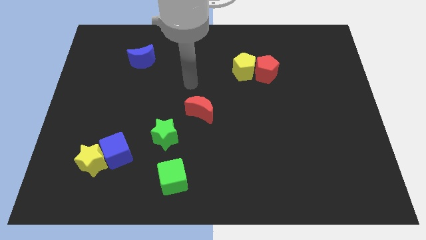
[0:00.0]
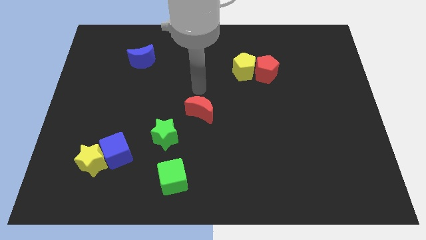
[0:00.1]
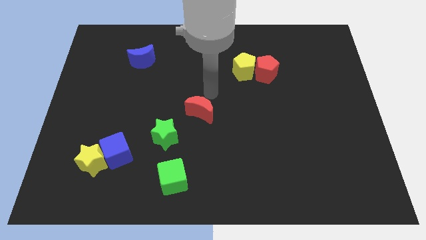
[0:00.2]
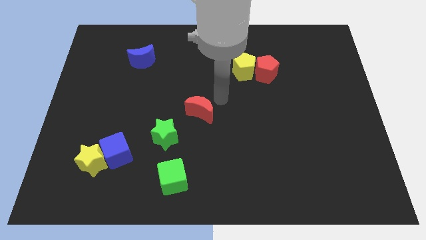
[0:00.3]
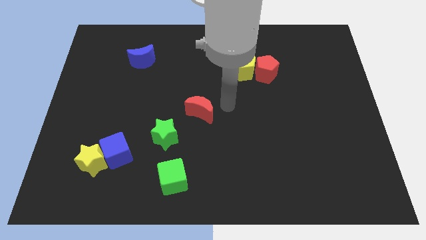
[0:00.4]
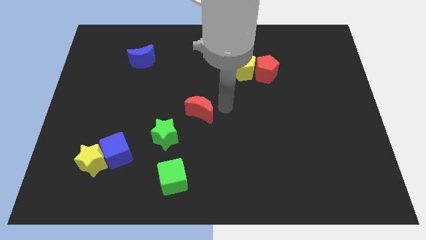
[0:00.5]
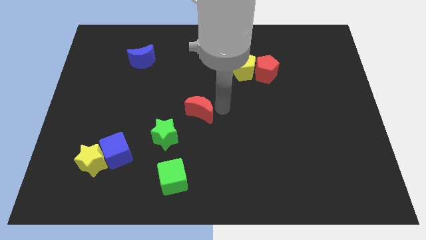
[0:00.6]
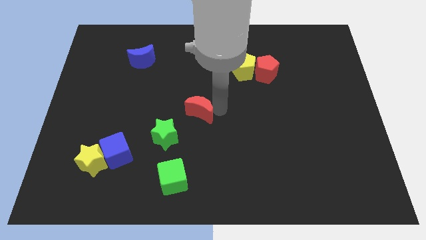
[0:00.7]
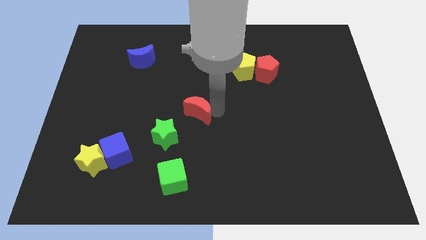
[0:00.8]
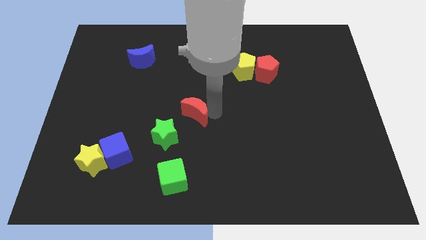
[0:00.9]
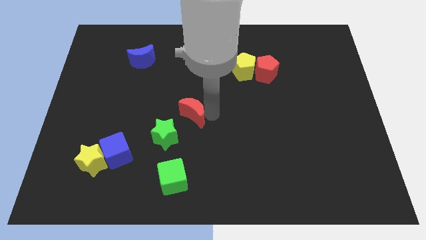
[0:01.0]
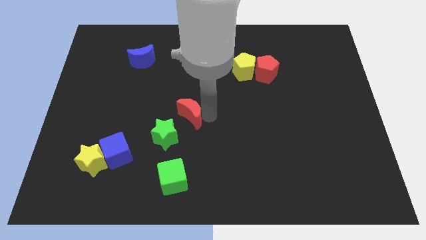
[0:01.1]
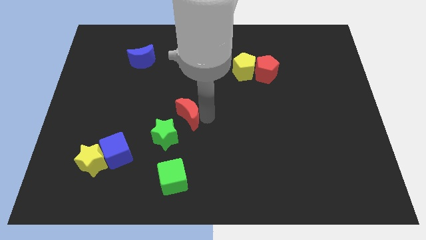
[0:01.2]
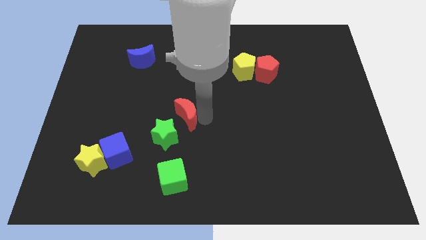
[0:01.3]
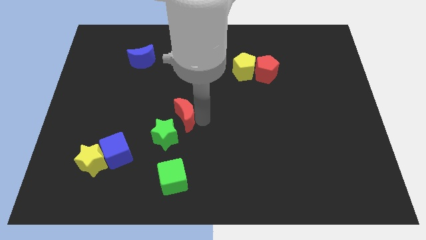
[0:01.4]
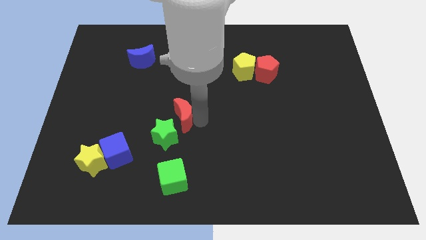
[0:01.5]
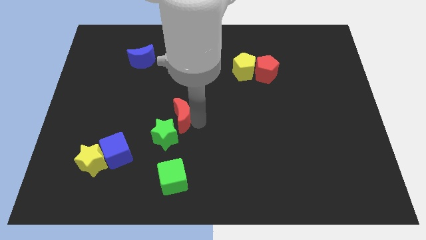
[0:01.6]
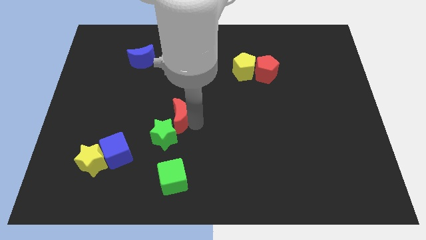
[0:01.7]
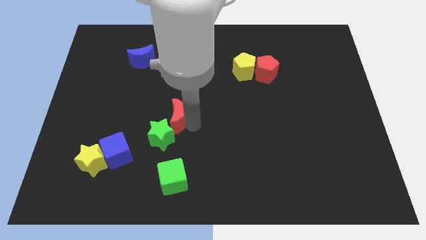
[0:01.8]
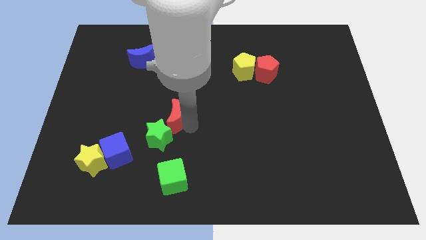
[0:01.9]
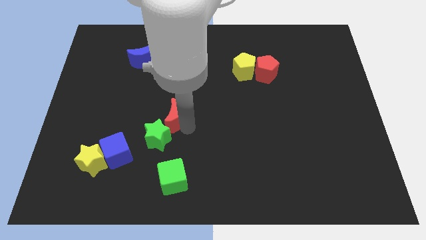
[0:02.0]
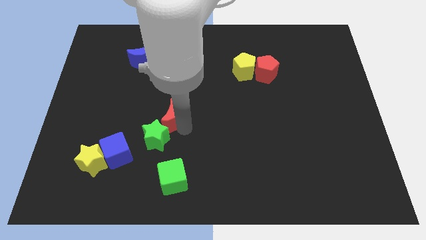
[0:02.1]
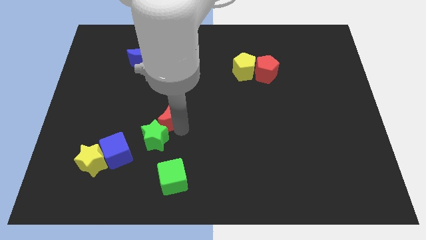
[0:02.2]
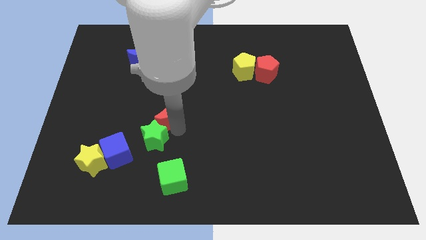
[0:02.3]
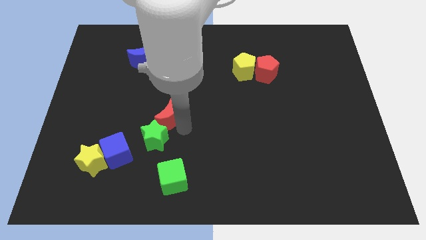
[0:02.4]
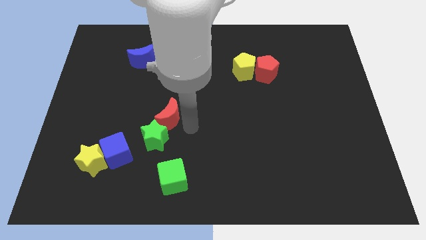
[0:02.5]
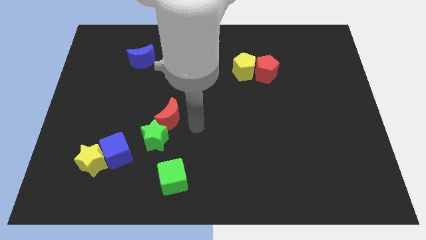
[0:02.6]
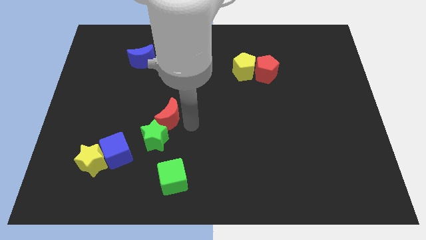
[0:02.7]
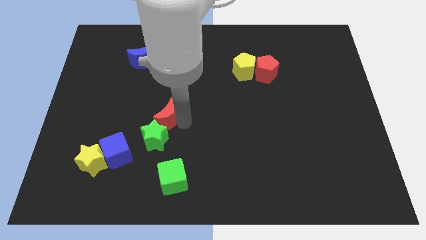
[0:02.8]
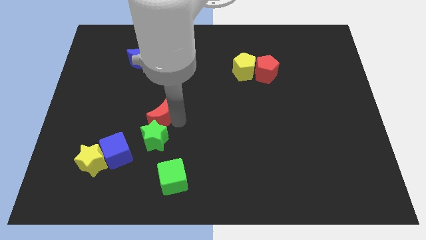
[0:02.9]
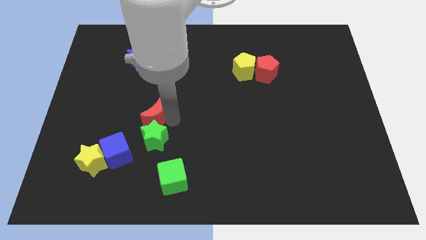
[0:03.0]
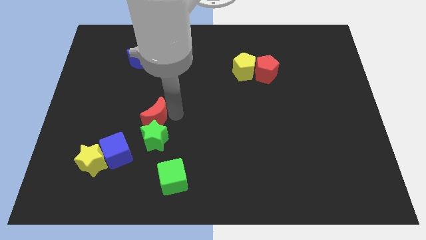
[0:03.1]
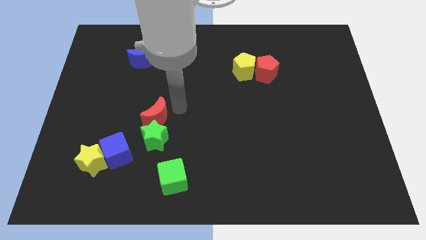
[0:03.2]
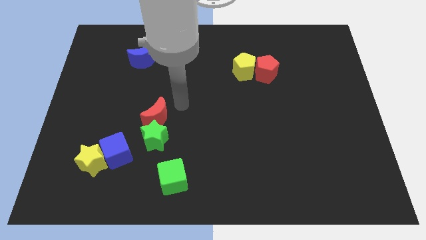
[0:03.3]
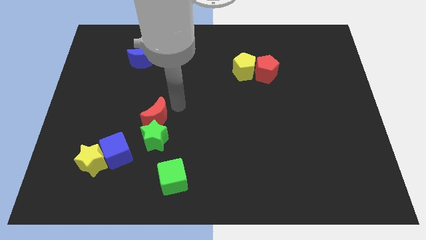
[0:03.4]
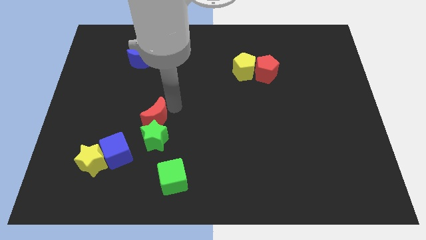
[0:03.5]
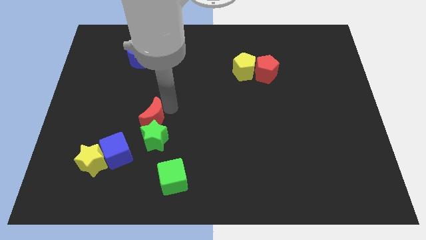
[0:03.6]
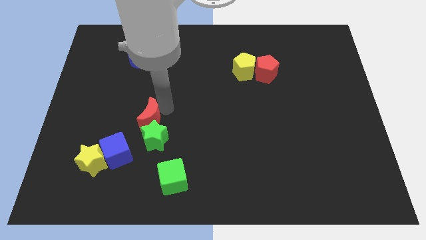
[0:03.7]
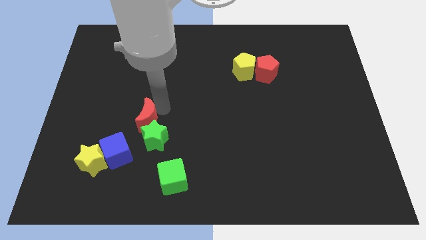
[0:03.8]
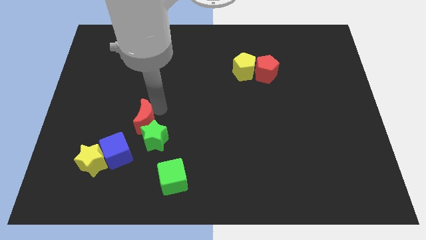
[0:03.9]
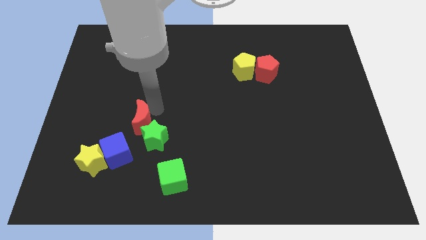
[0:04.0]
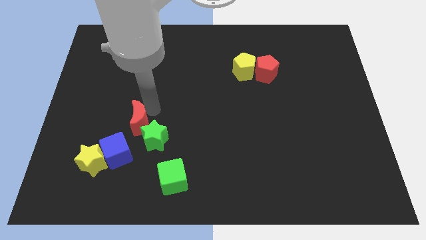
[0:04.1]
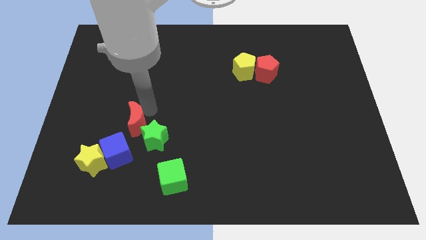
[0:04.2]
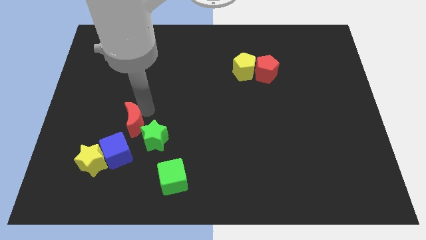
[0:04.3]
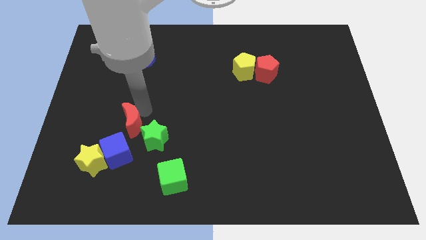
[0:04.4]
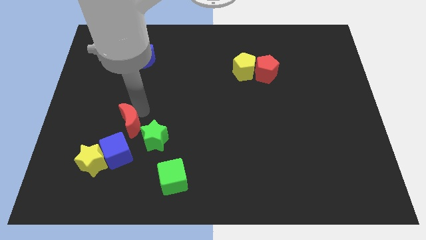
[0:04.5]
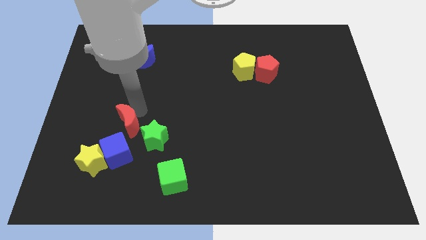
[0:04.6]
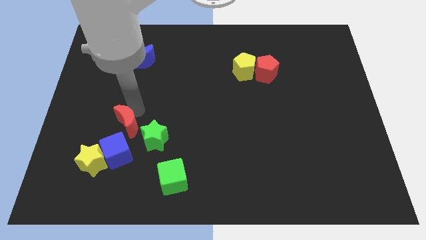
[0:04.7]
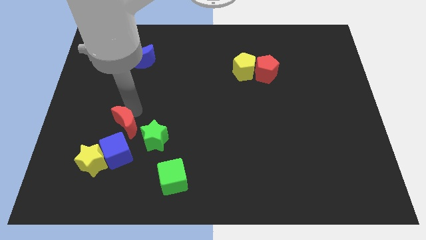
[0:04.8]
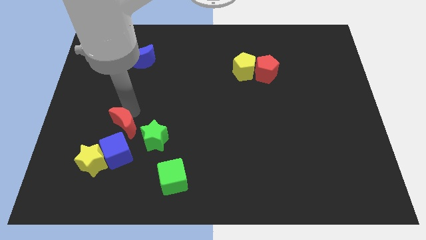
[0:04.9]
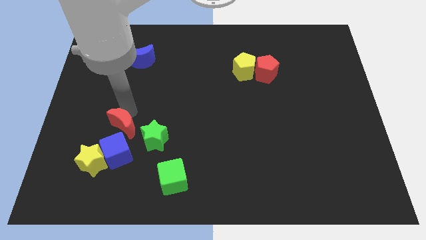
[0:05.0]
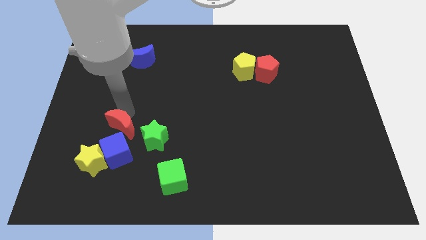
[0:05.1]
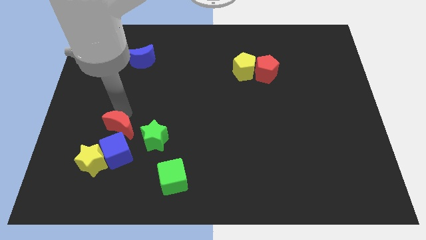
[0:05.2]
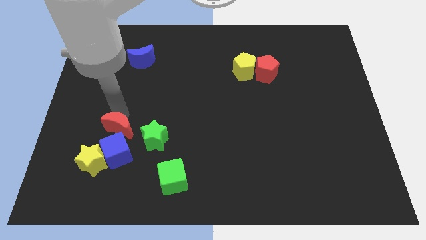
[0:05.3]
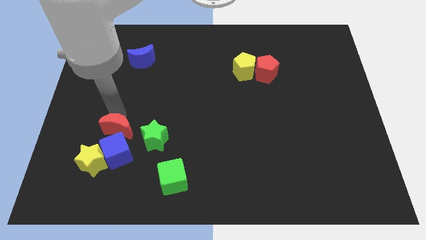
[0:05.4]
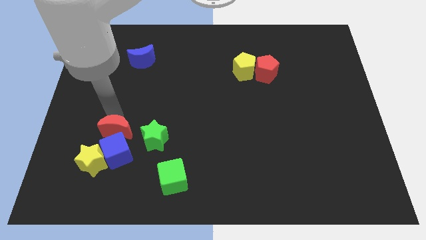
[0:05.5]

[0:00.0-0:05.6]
slide the red moon to the blue cube

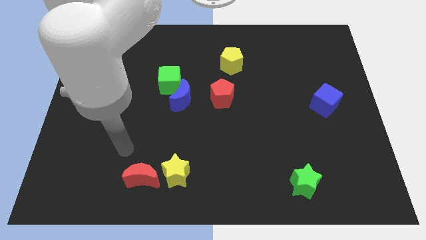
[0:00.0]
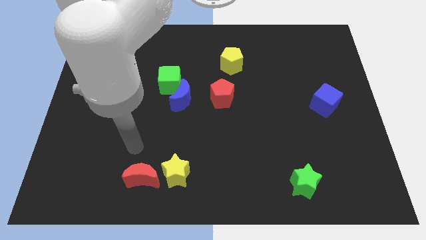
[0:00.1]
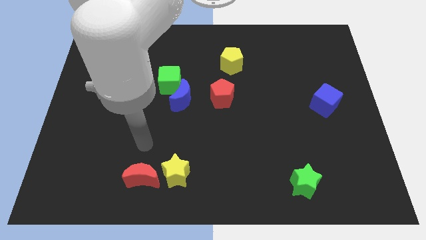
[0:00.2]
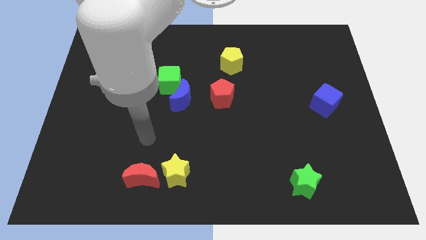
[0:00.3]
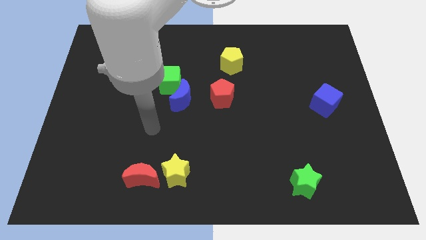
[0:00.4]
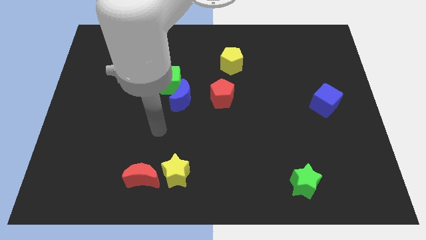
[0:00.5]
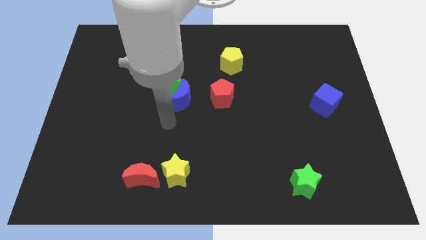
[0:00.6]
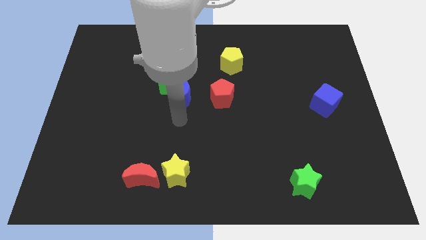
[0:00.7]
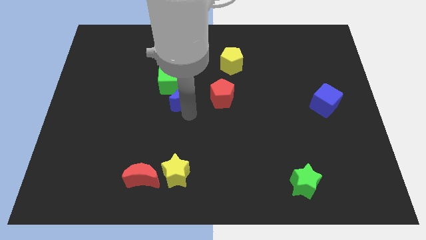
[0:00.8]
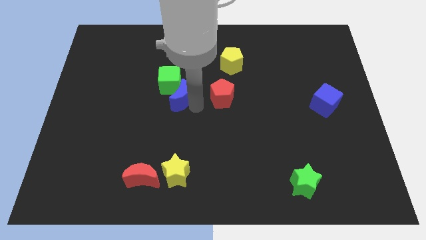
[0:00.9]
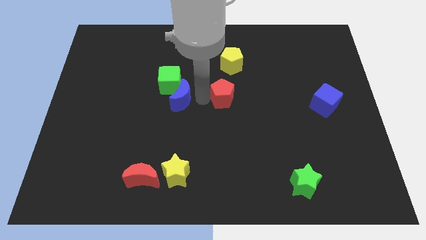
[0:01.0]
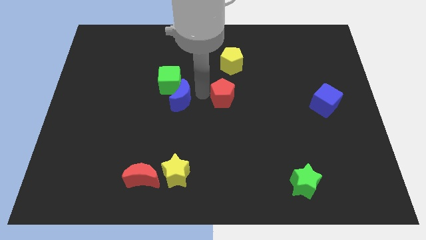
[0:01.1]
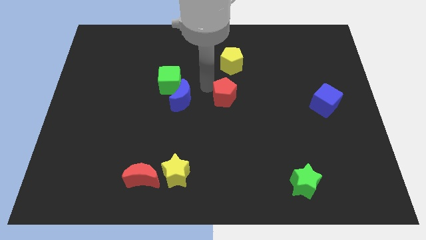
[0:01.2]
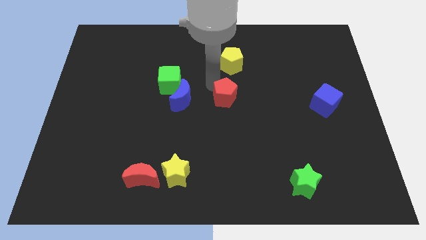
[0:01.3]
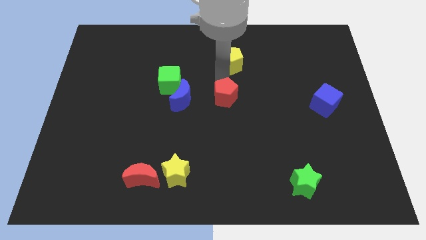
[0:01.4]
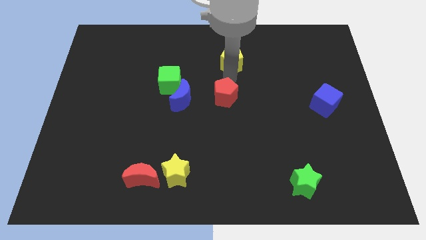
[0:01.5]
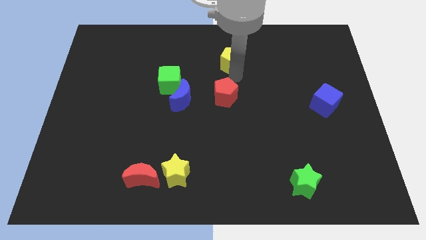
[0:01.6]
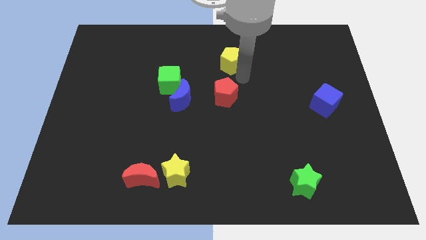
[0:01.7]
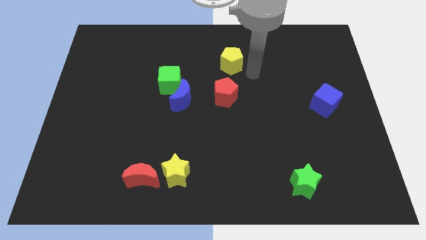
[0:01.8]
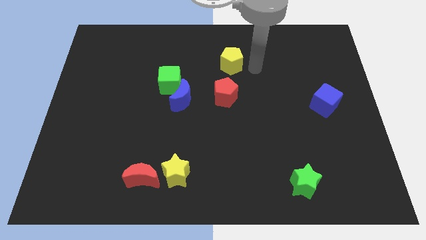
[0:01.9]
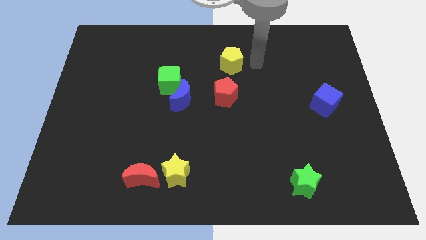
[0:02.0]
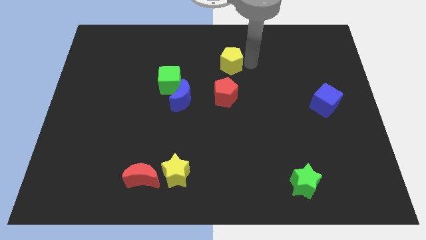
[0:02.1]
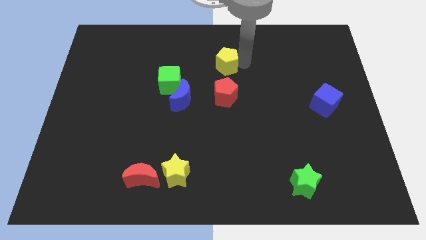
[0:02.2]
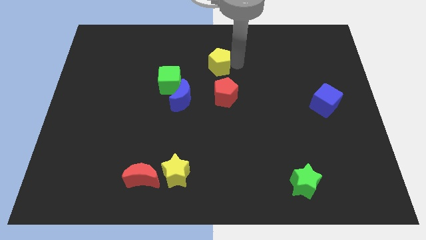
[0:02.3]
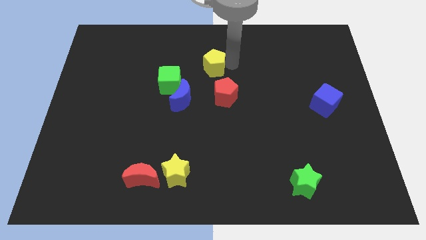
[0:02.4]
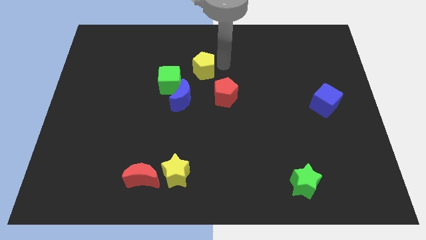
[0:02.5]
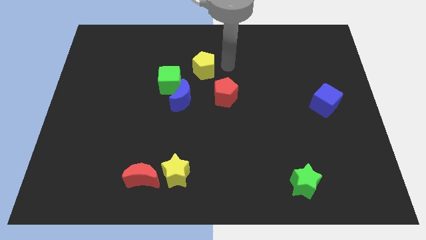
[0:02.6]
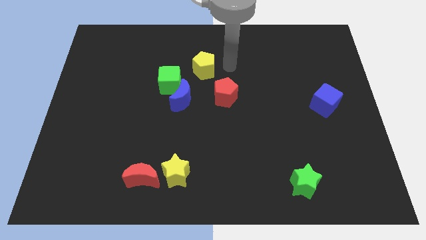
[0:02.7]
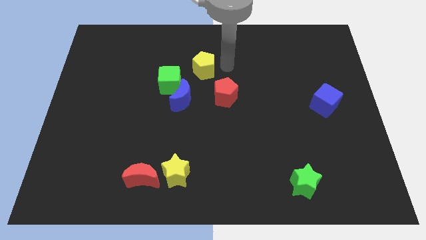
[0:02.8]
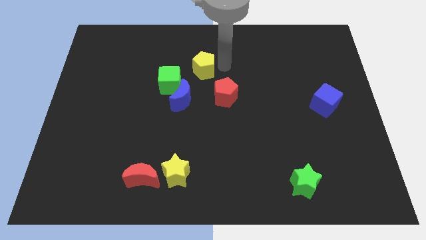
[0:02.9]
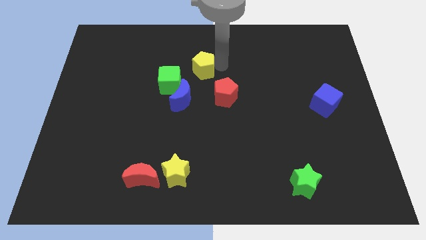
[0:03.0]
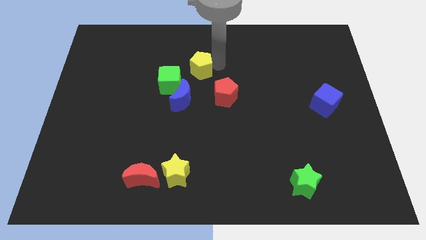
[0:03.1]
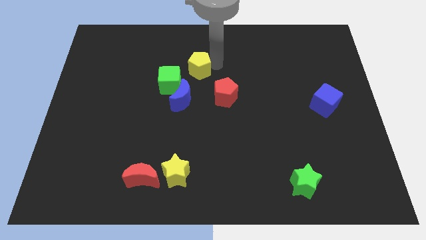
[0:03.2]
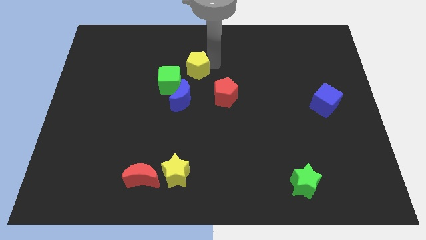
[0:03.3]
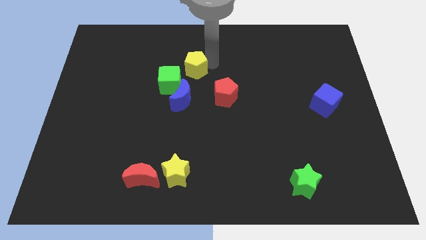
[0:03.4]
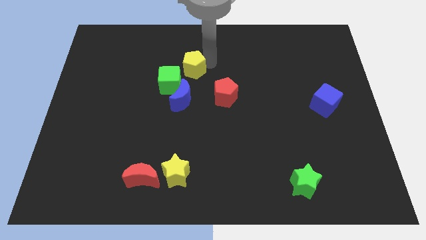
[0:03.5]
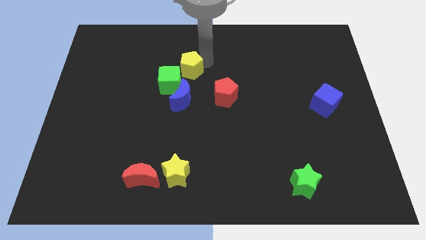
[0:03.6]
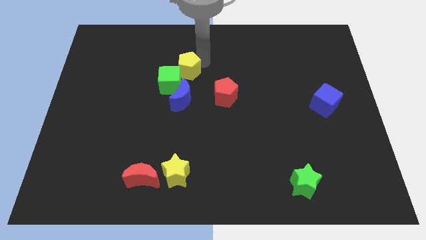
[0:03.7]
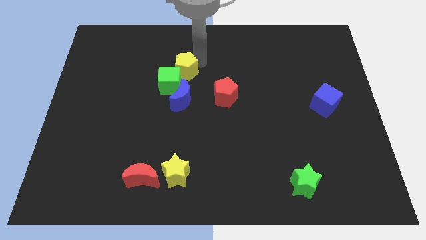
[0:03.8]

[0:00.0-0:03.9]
put the yellow pentagon next to the green cube
